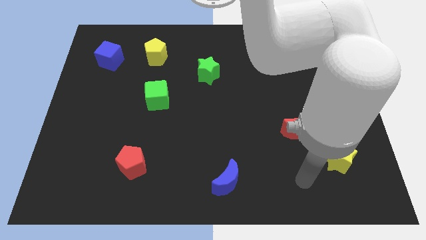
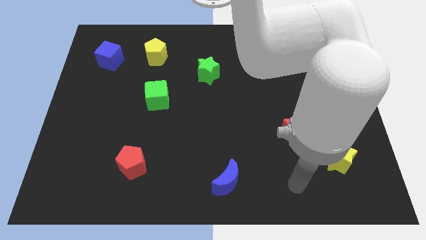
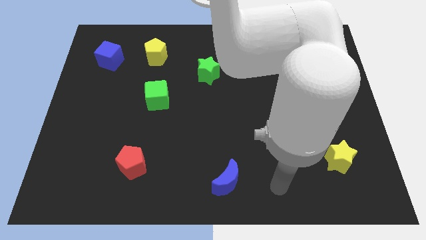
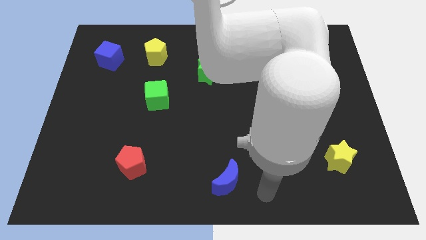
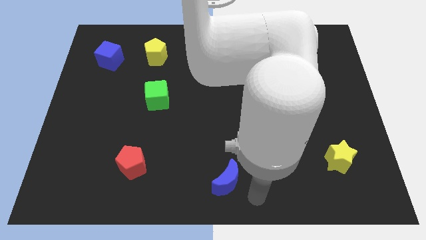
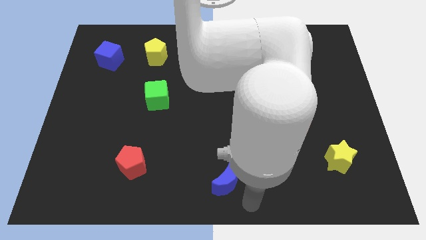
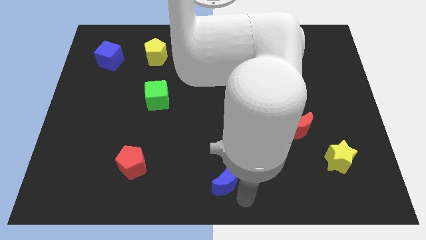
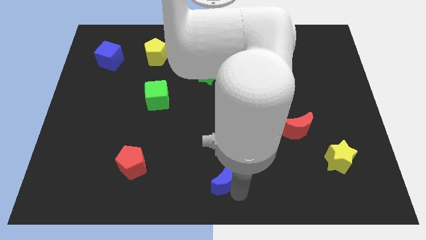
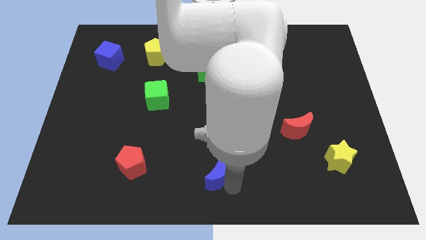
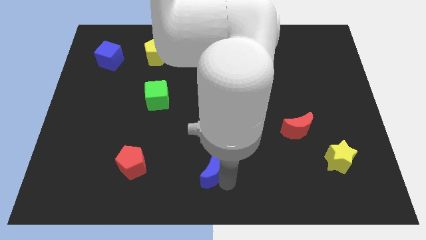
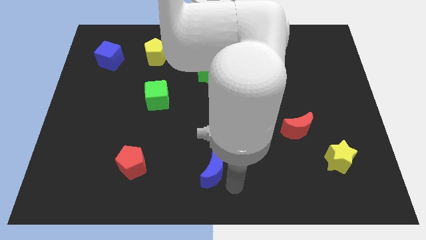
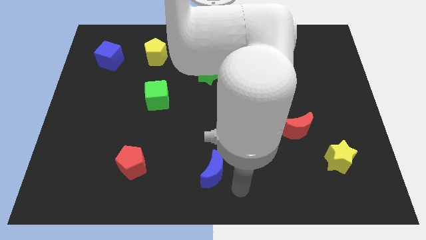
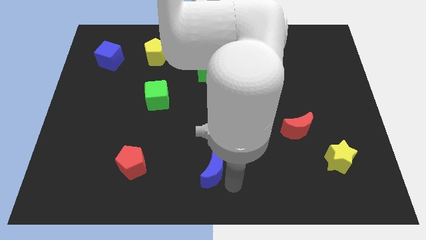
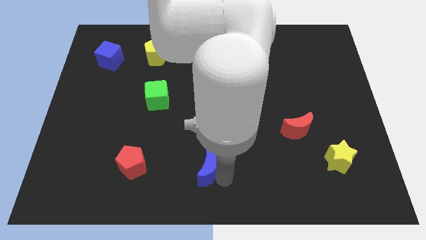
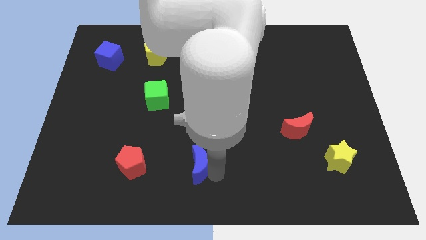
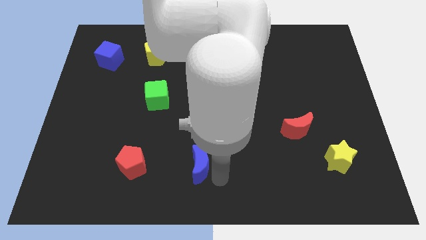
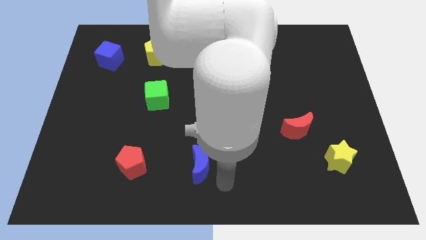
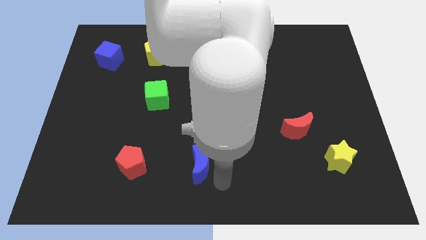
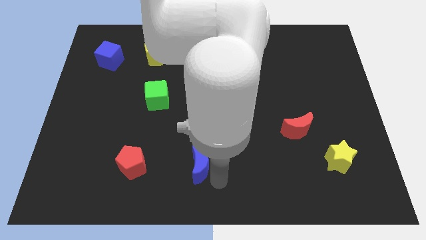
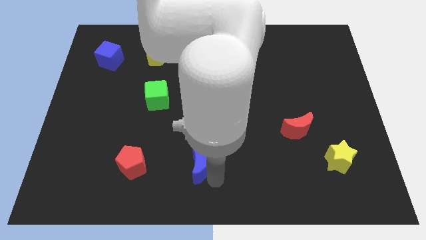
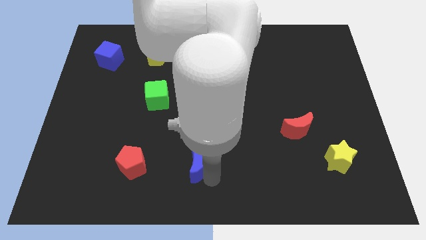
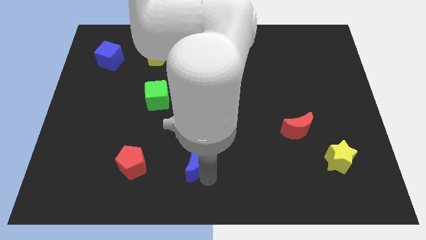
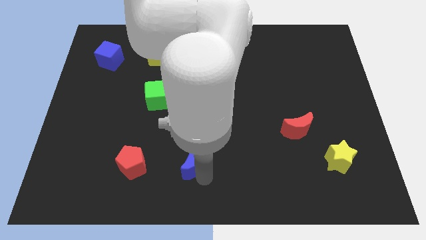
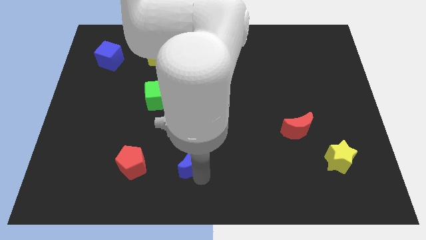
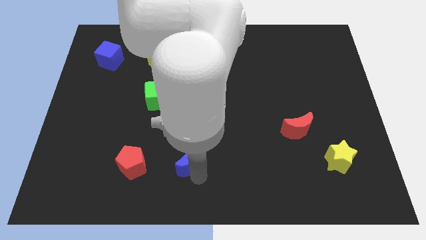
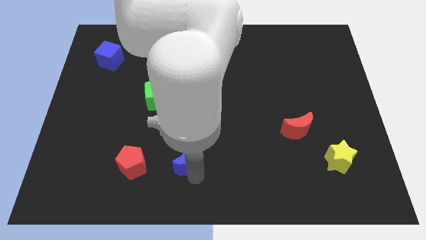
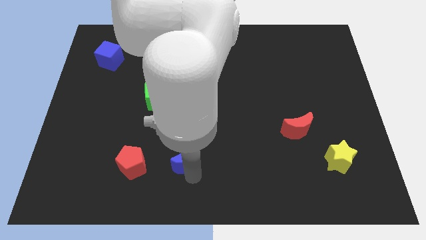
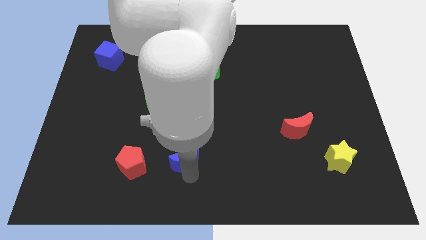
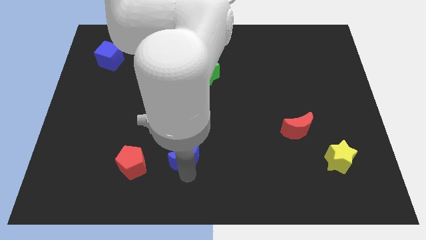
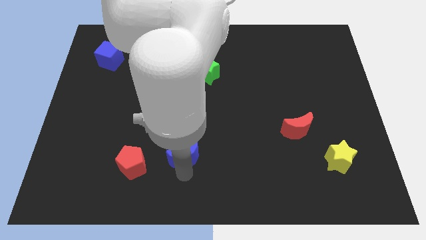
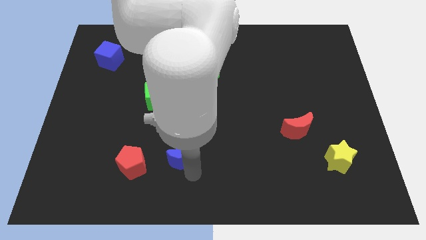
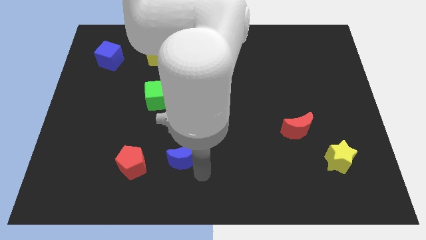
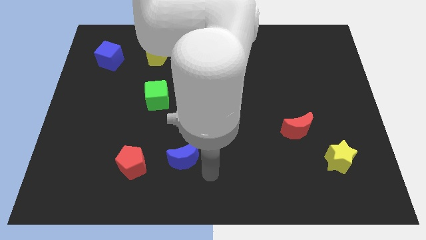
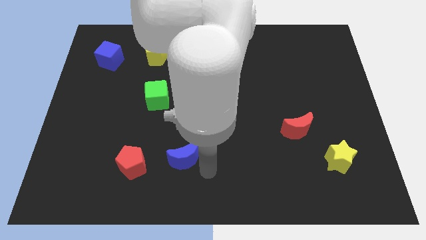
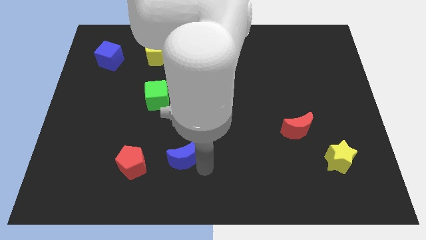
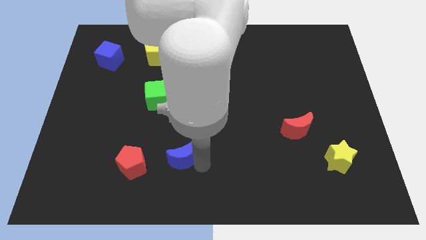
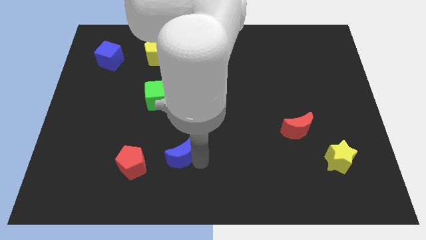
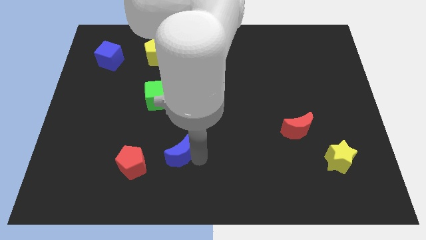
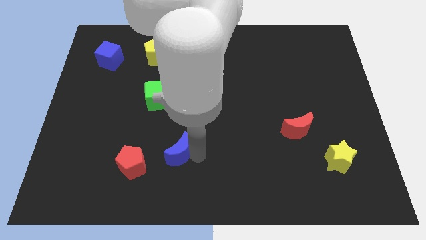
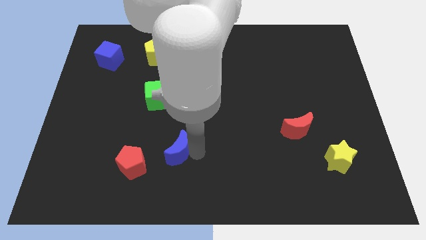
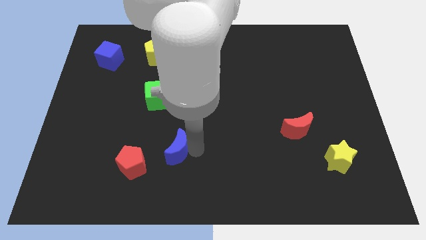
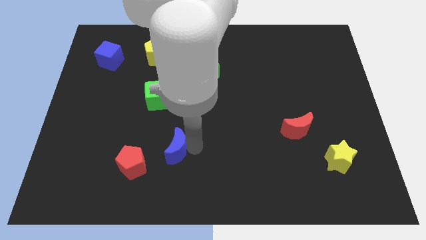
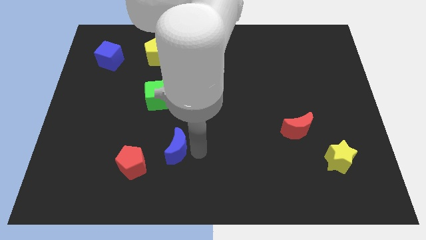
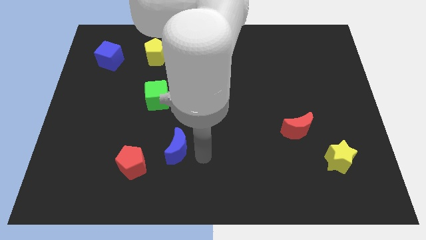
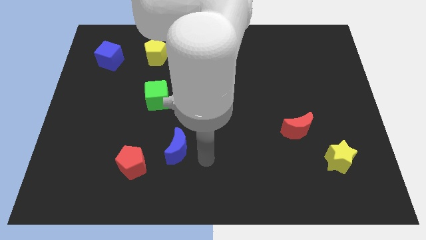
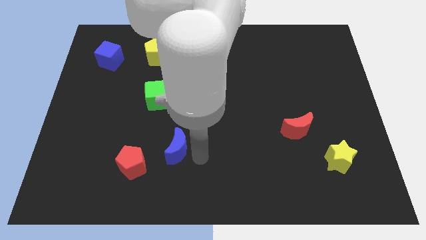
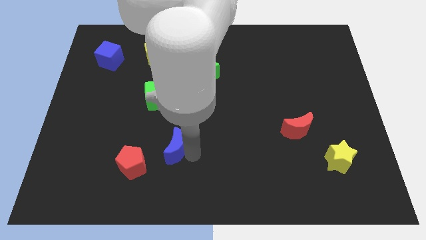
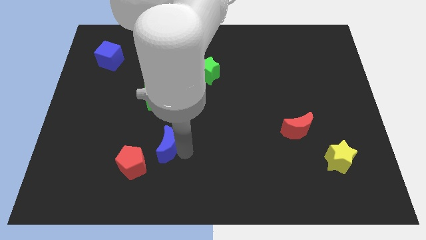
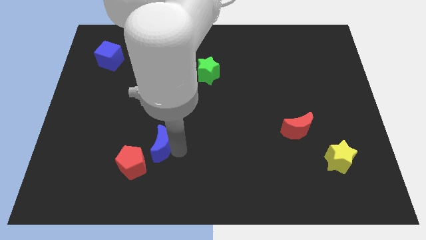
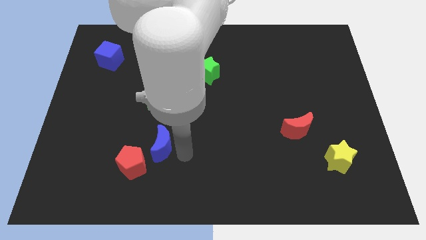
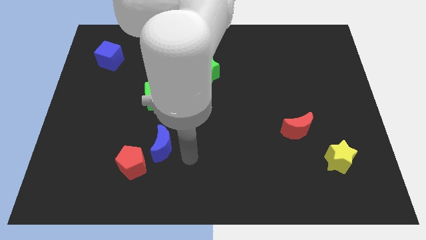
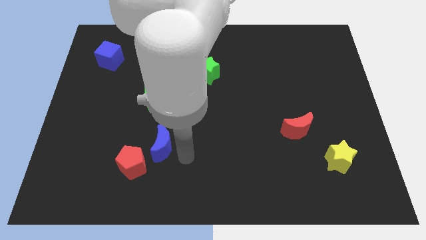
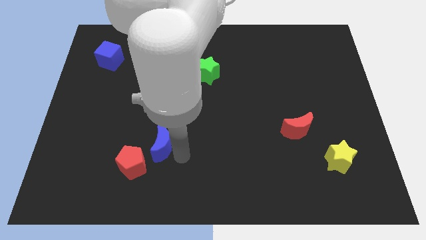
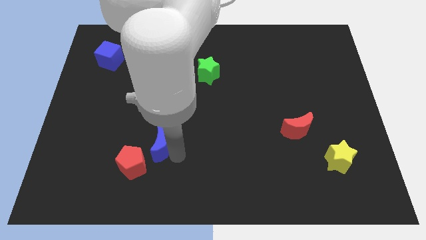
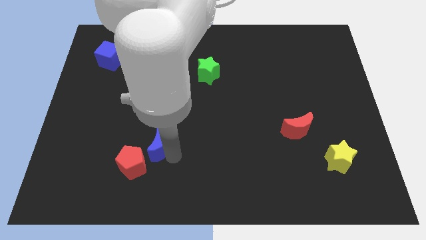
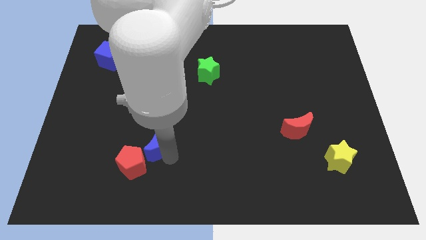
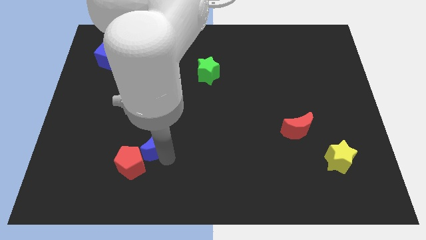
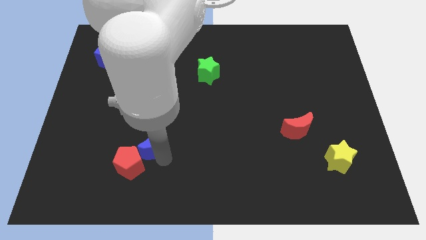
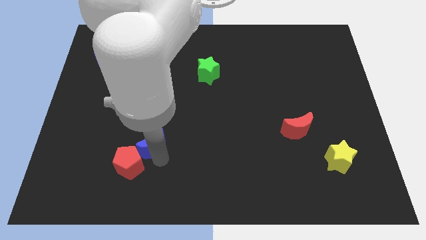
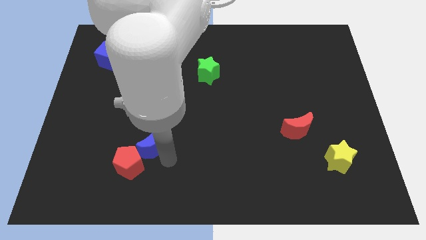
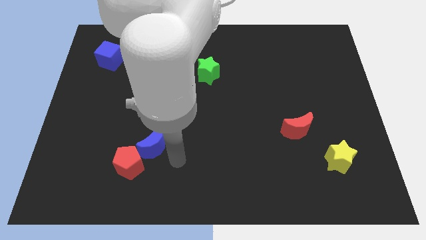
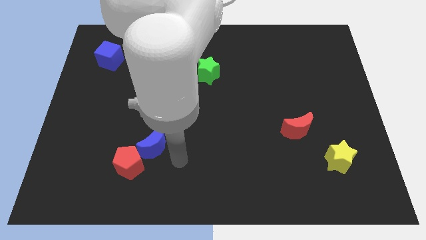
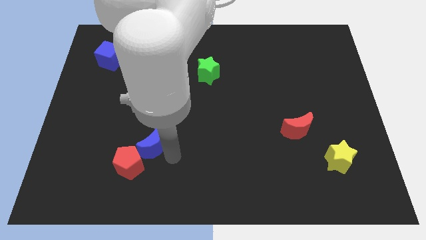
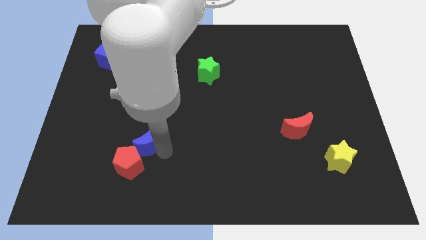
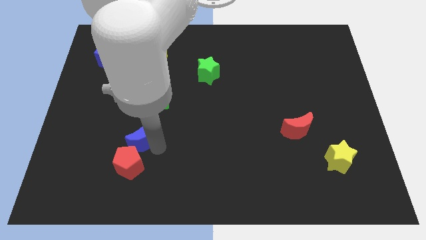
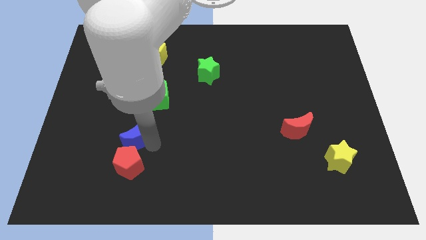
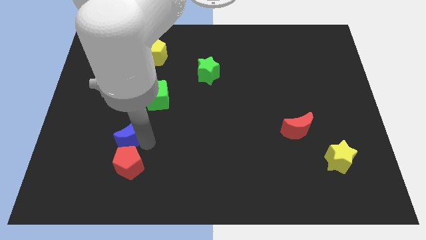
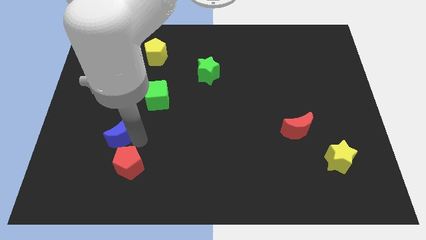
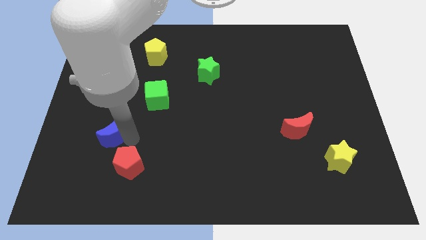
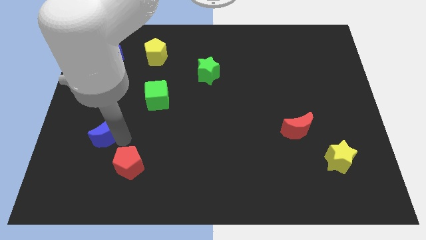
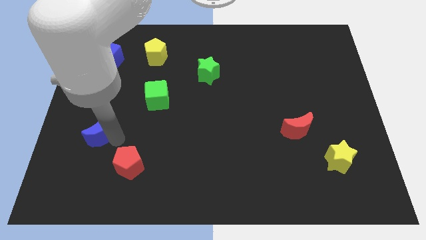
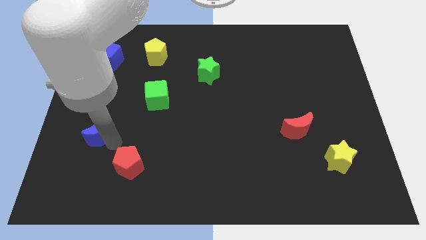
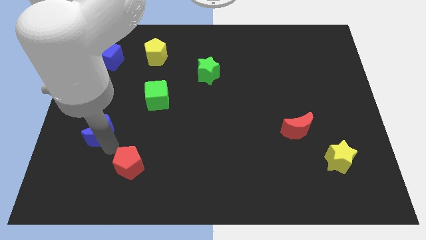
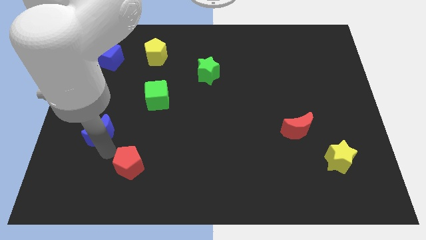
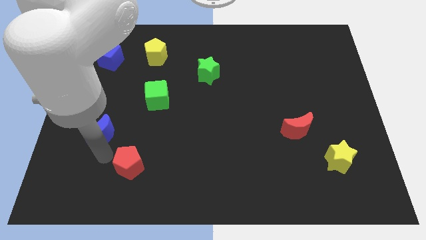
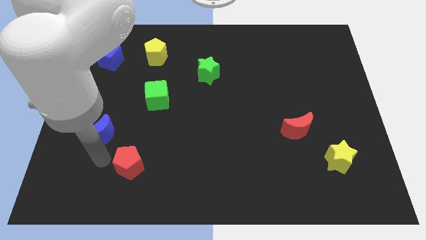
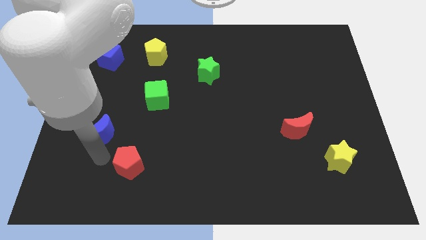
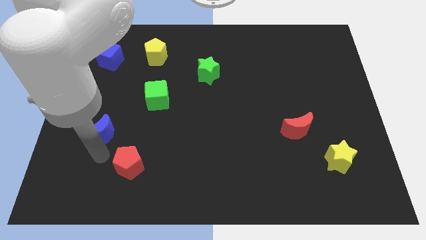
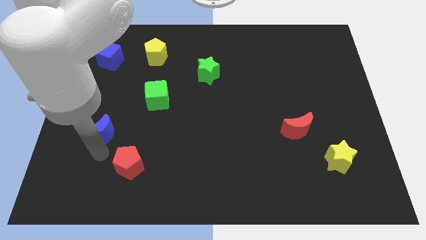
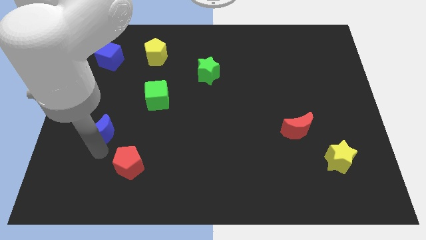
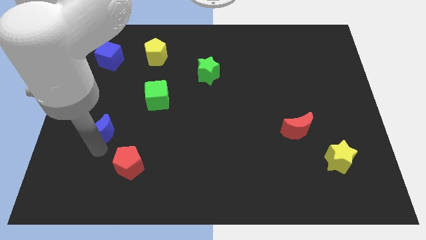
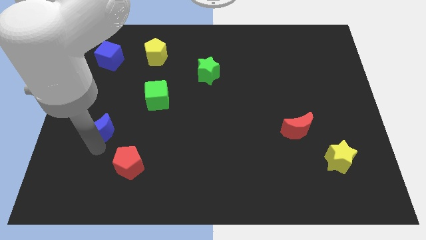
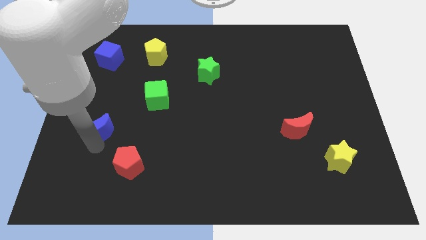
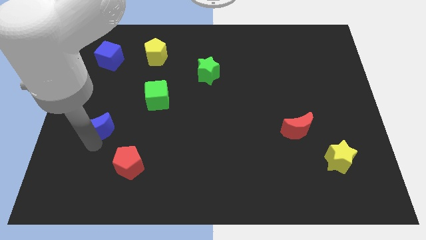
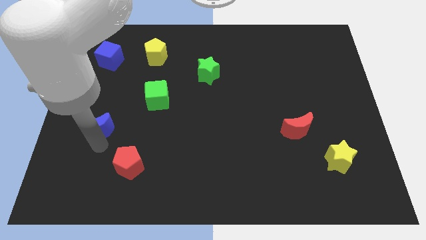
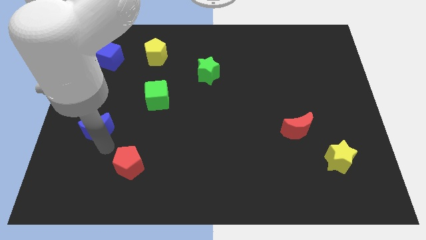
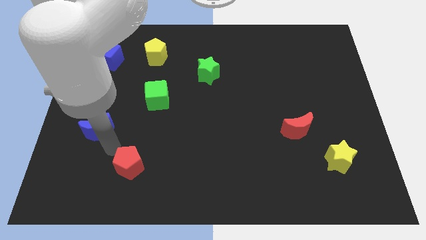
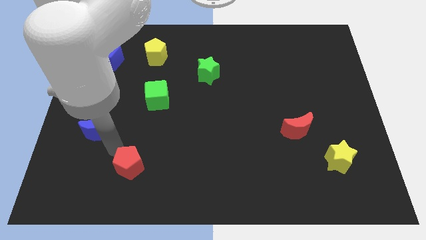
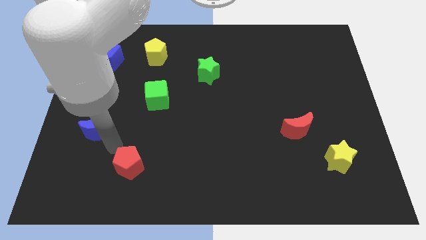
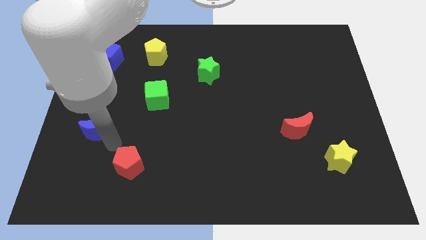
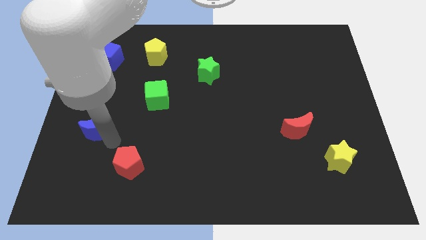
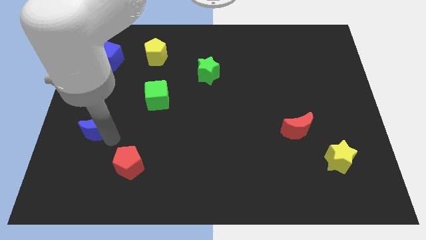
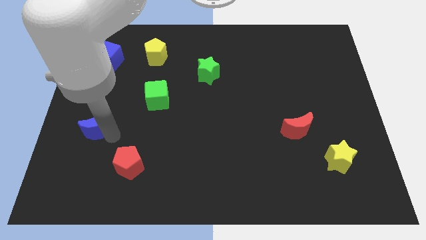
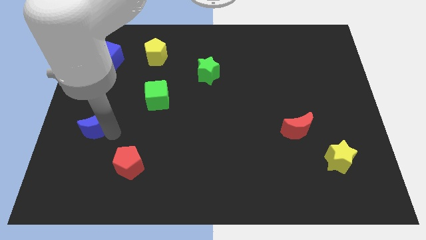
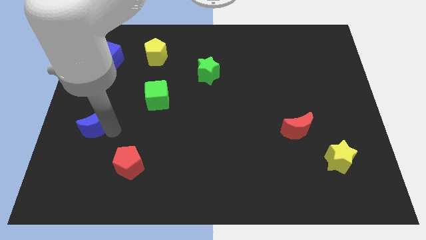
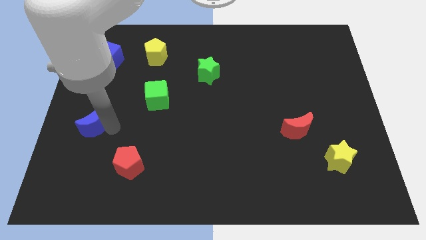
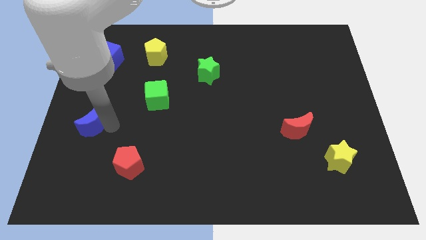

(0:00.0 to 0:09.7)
slide the blue moon to the left side
